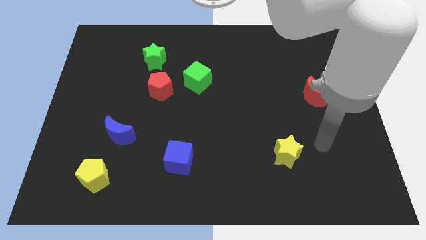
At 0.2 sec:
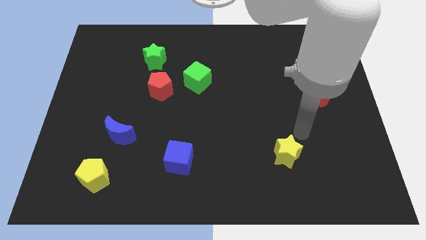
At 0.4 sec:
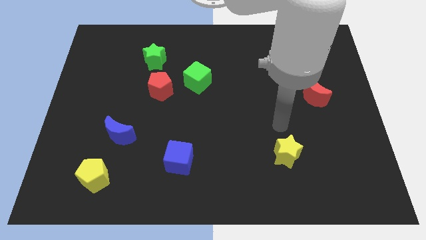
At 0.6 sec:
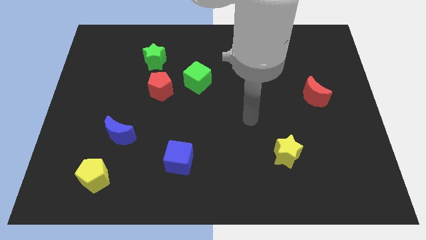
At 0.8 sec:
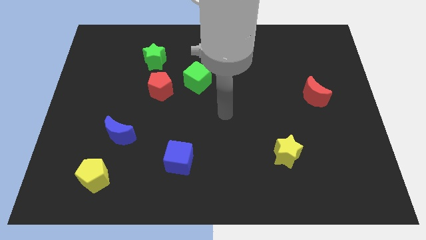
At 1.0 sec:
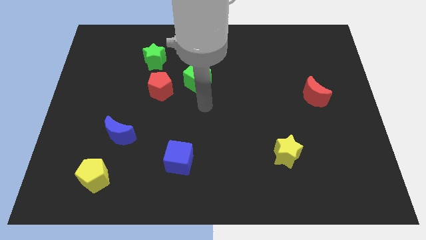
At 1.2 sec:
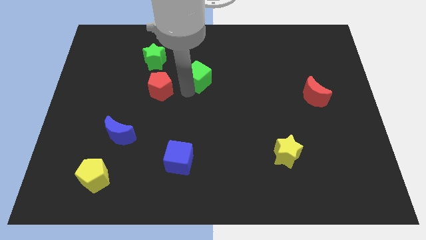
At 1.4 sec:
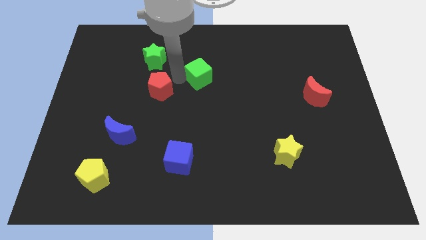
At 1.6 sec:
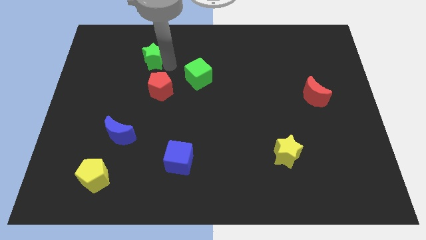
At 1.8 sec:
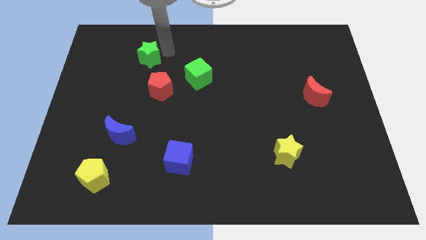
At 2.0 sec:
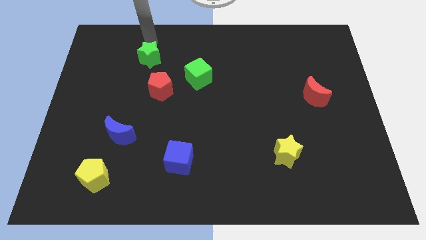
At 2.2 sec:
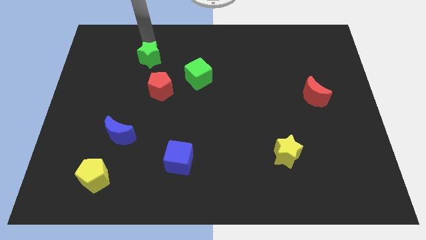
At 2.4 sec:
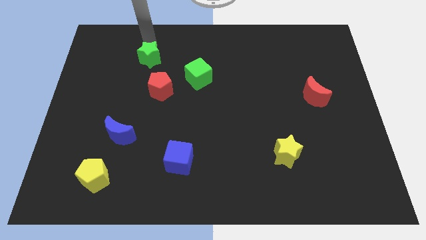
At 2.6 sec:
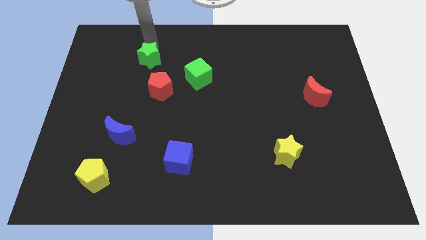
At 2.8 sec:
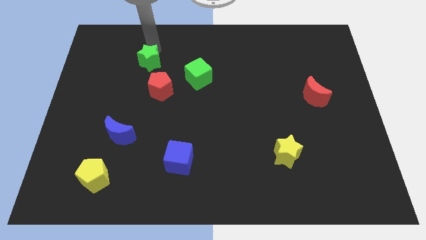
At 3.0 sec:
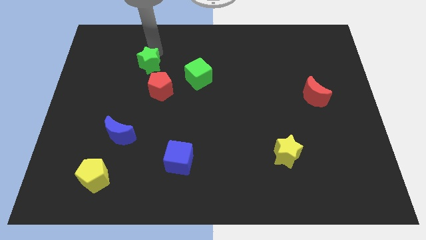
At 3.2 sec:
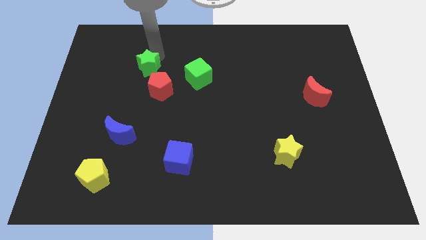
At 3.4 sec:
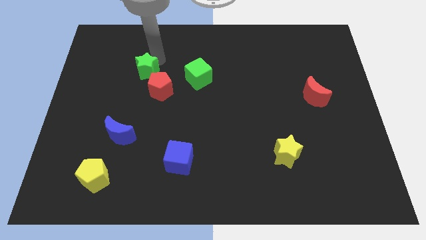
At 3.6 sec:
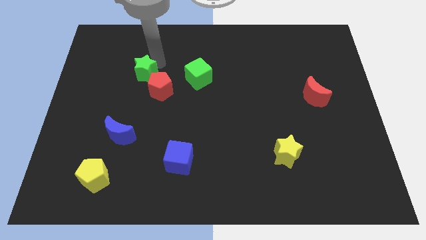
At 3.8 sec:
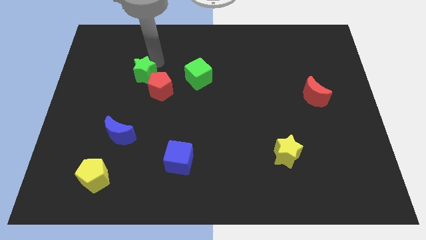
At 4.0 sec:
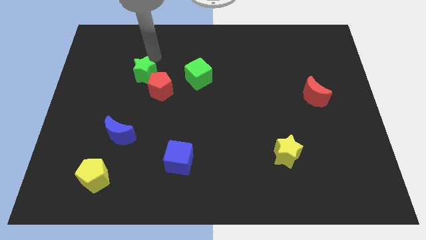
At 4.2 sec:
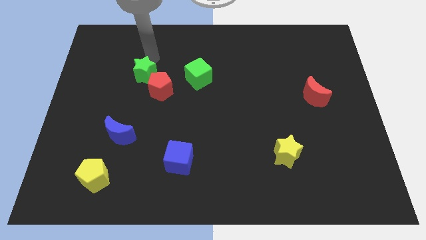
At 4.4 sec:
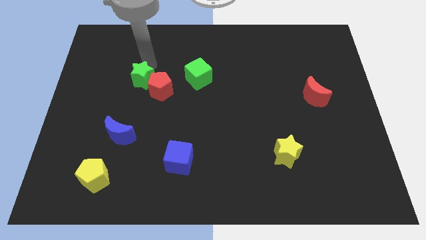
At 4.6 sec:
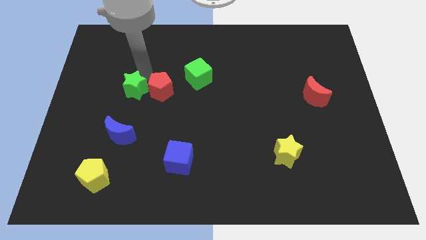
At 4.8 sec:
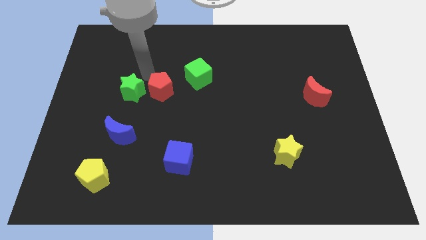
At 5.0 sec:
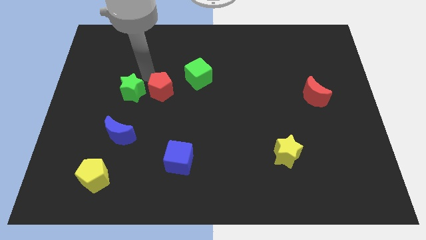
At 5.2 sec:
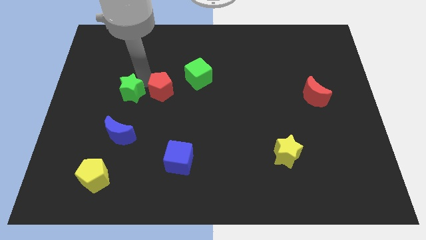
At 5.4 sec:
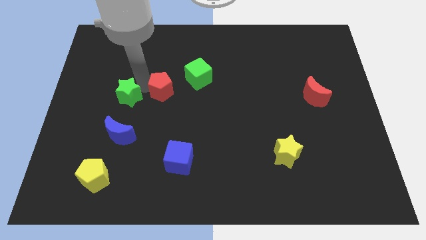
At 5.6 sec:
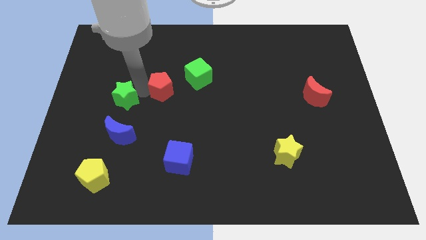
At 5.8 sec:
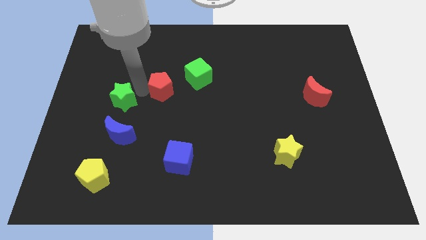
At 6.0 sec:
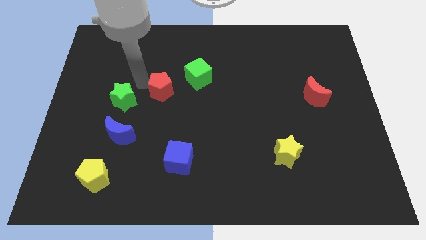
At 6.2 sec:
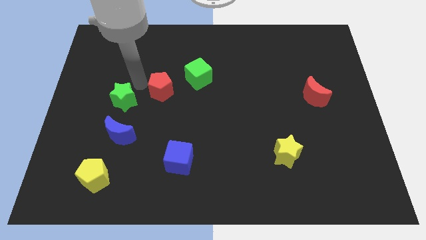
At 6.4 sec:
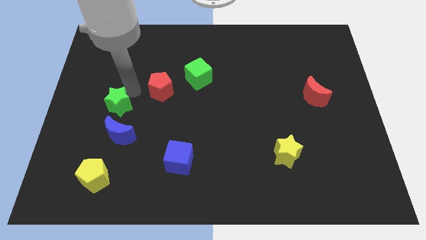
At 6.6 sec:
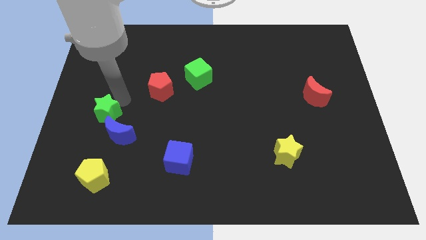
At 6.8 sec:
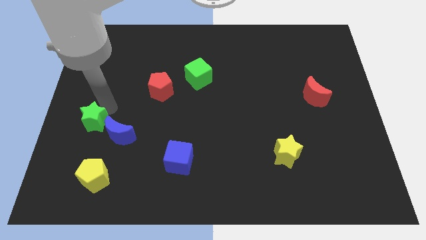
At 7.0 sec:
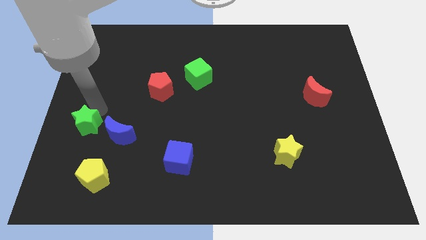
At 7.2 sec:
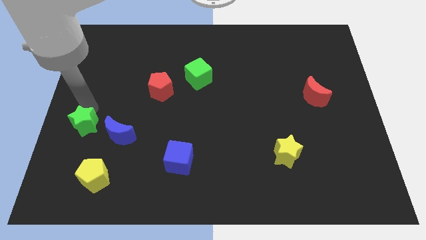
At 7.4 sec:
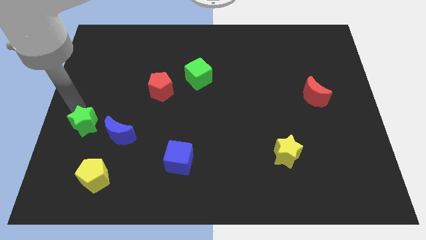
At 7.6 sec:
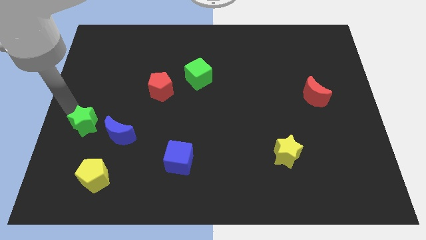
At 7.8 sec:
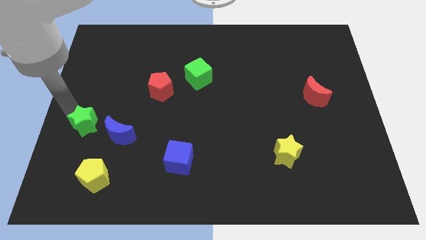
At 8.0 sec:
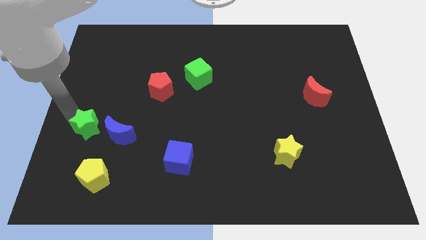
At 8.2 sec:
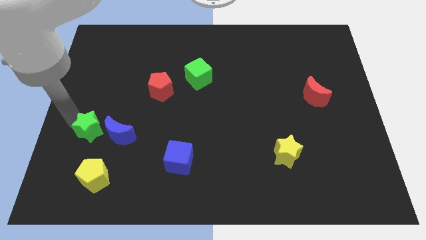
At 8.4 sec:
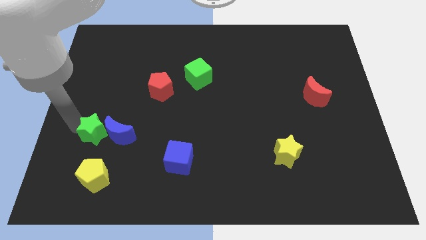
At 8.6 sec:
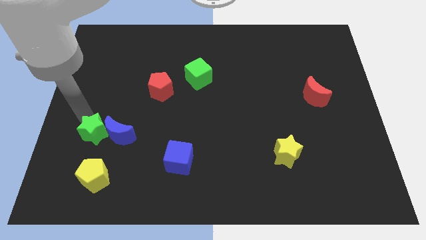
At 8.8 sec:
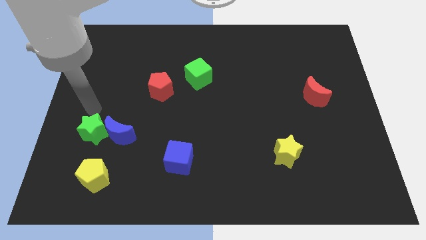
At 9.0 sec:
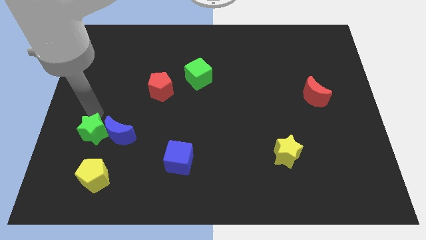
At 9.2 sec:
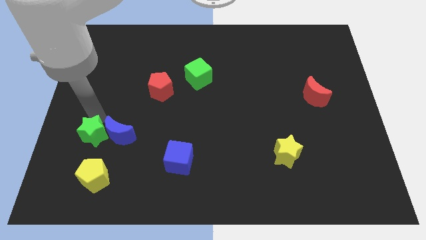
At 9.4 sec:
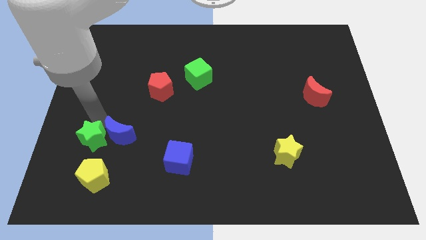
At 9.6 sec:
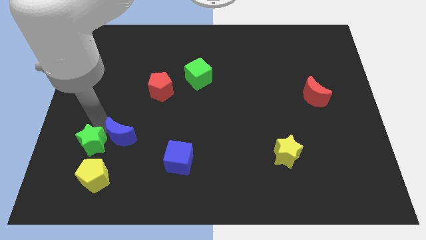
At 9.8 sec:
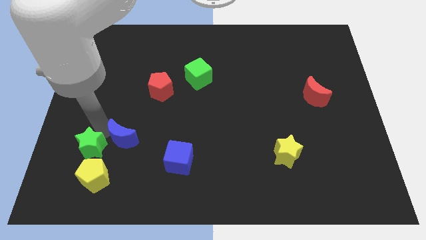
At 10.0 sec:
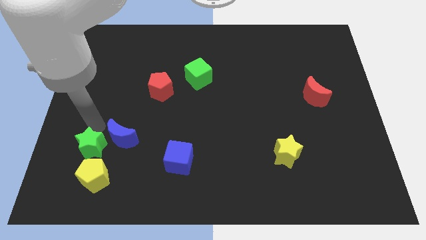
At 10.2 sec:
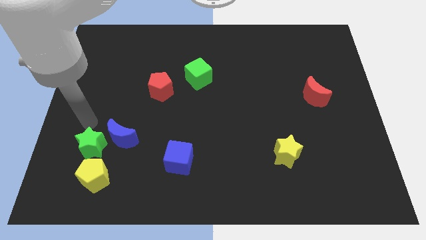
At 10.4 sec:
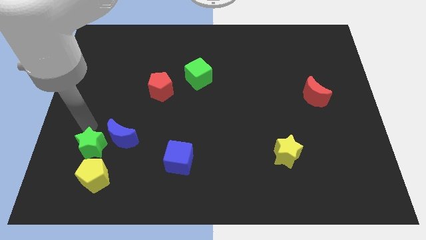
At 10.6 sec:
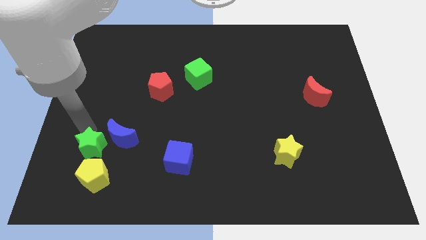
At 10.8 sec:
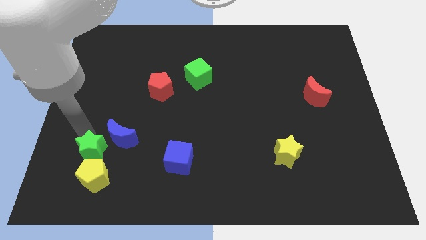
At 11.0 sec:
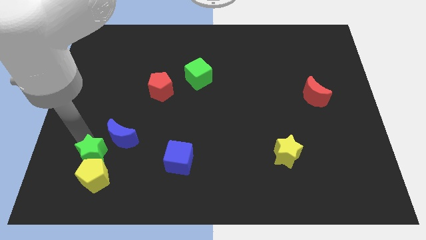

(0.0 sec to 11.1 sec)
move the green star close to the yellow pentagon

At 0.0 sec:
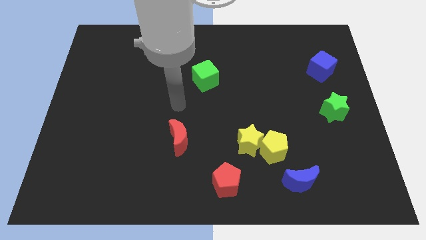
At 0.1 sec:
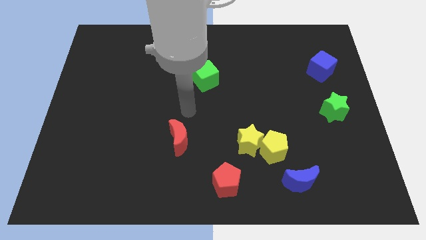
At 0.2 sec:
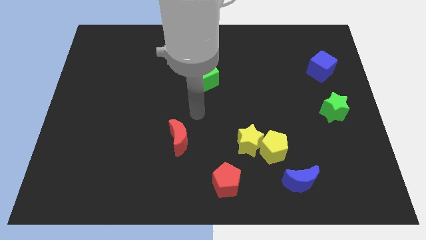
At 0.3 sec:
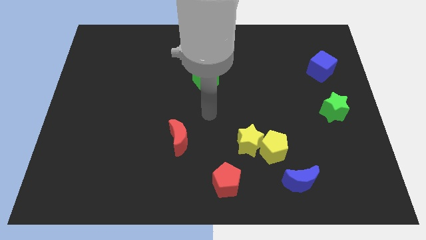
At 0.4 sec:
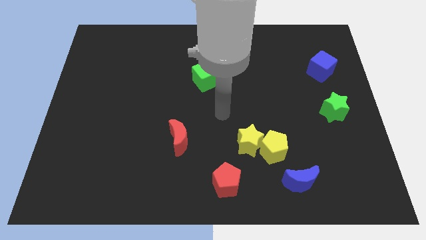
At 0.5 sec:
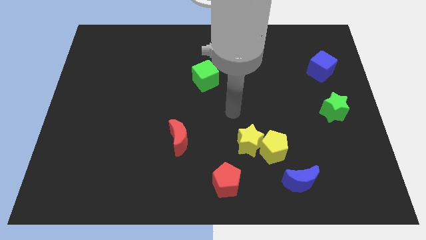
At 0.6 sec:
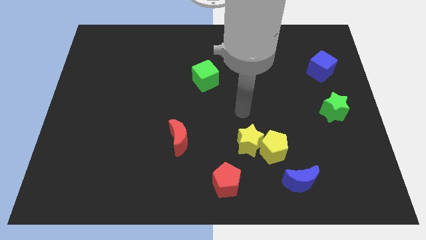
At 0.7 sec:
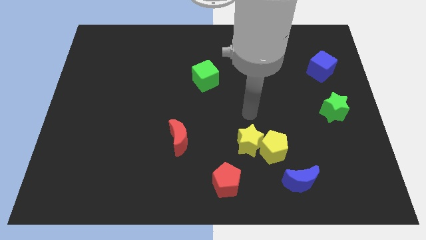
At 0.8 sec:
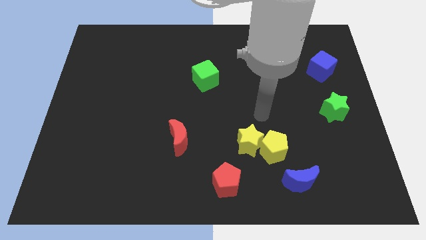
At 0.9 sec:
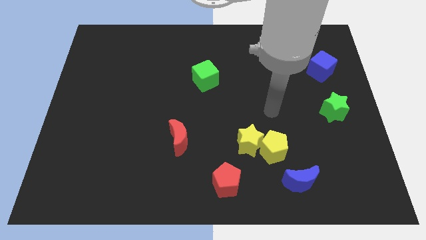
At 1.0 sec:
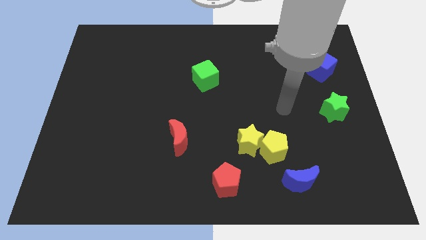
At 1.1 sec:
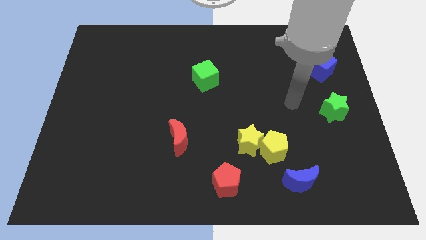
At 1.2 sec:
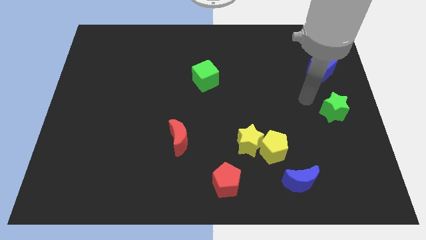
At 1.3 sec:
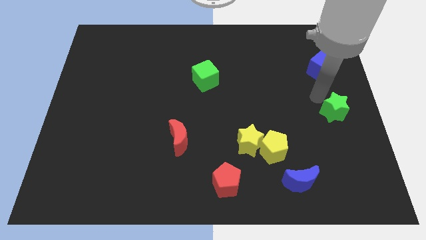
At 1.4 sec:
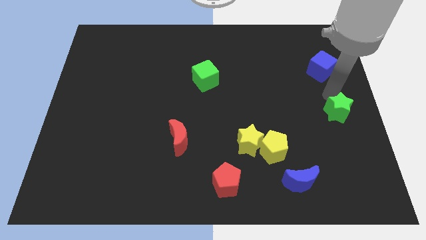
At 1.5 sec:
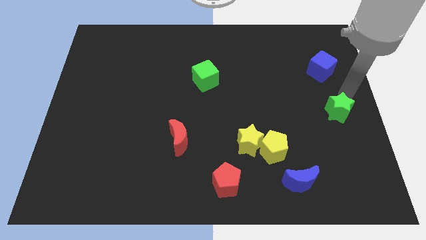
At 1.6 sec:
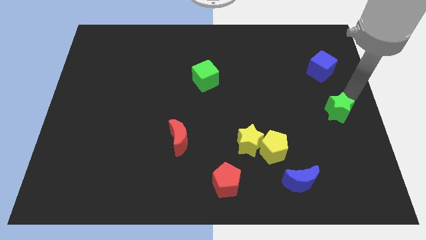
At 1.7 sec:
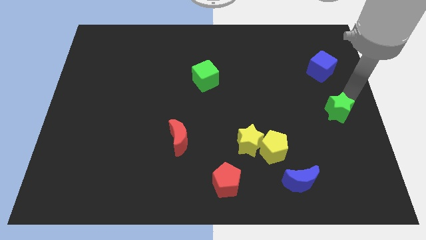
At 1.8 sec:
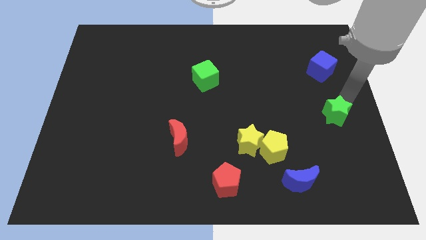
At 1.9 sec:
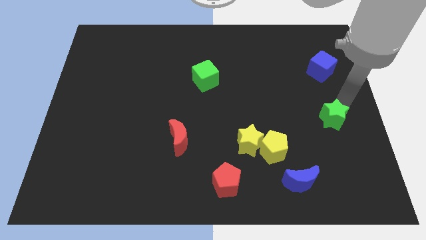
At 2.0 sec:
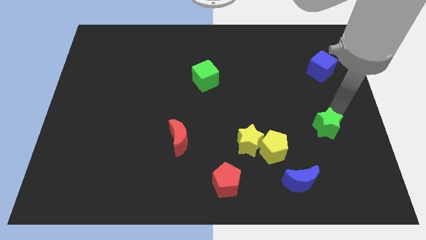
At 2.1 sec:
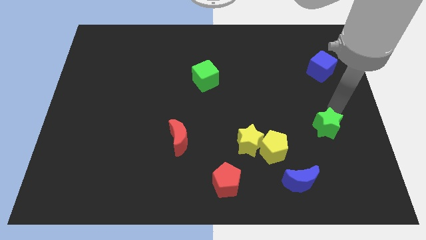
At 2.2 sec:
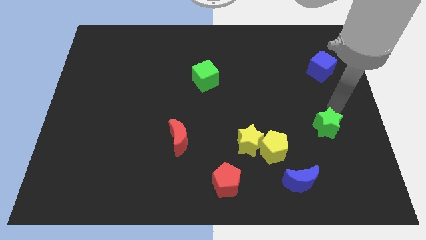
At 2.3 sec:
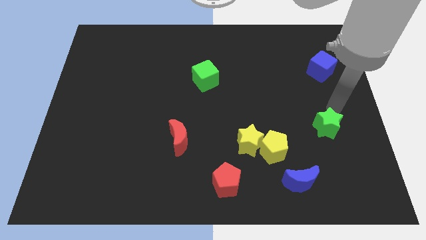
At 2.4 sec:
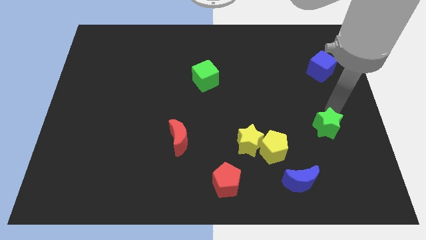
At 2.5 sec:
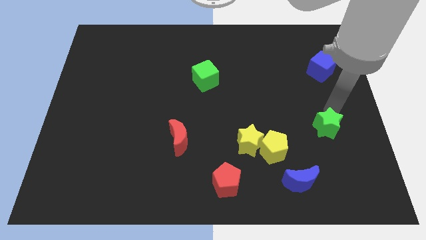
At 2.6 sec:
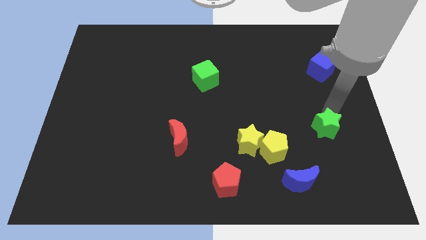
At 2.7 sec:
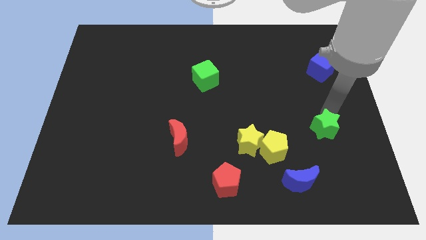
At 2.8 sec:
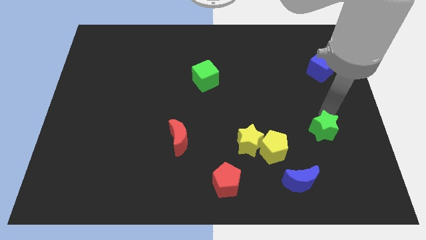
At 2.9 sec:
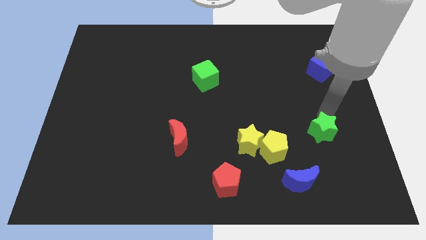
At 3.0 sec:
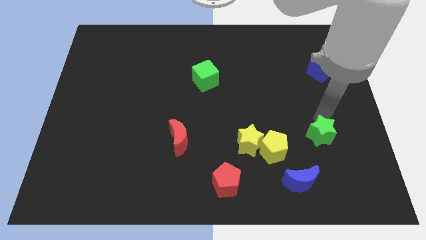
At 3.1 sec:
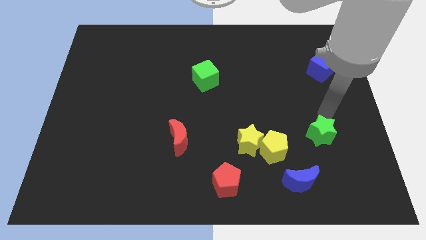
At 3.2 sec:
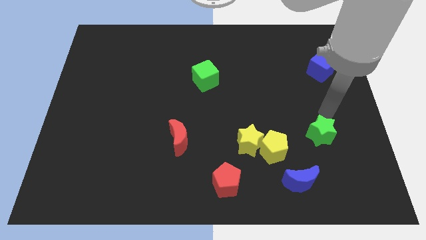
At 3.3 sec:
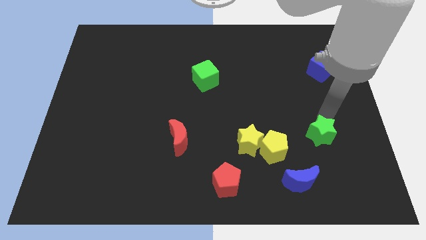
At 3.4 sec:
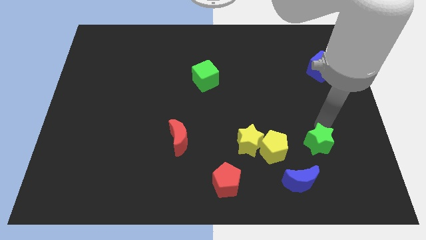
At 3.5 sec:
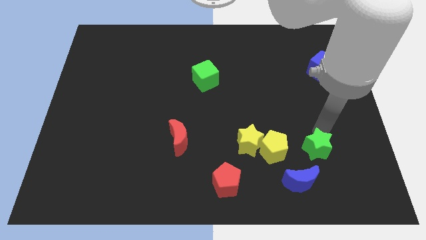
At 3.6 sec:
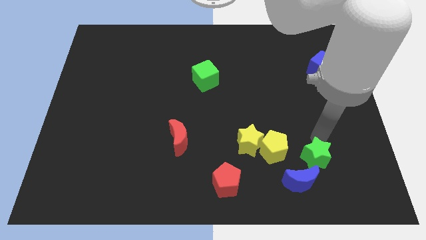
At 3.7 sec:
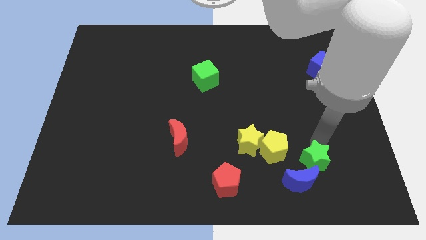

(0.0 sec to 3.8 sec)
put the green star towards the blue moon
